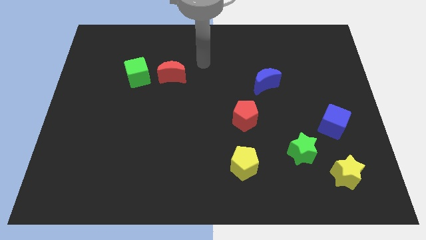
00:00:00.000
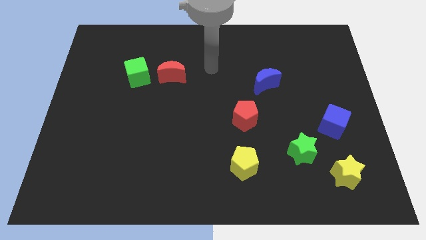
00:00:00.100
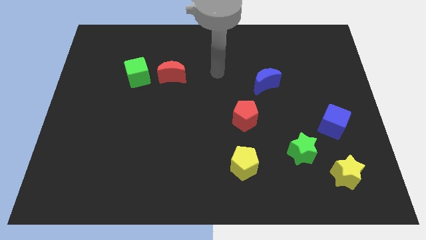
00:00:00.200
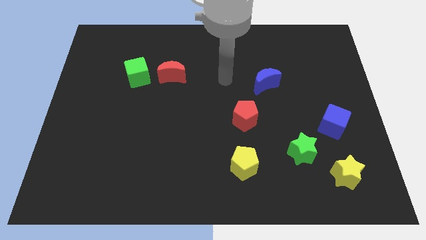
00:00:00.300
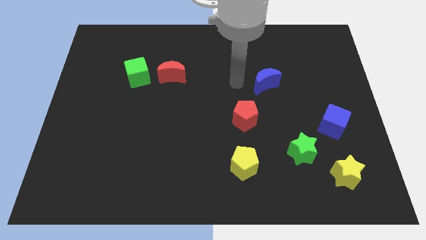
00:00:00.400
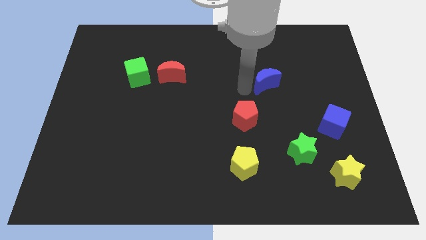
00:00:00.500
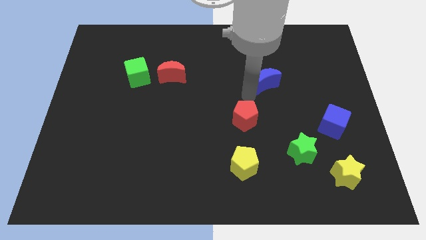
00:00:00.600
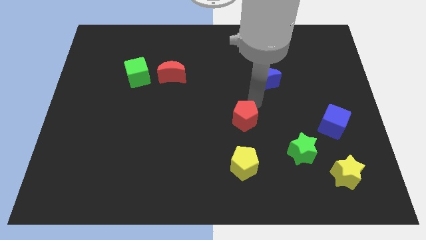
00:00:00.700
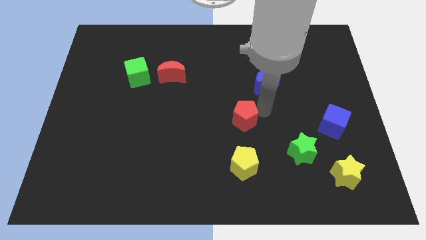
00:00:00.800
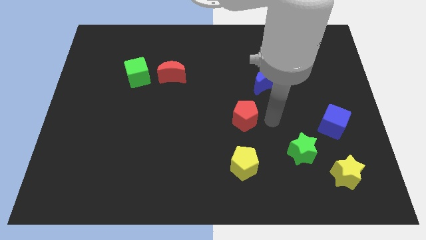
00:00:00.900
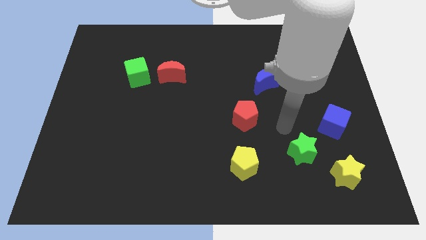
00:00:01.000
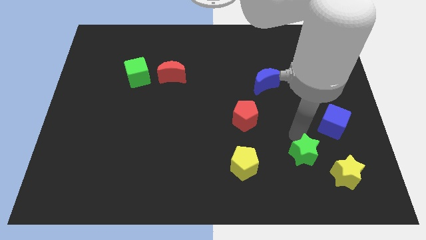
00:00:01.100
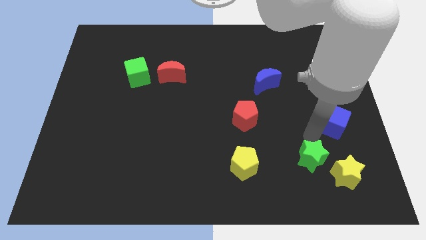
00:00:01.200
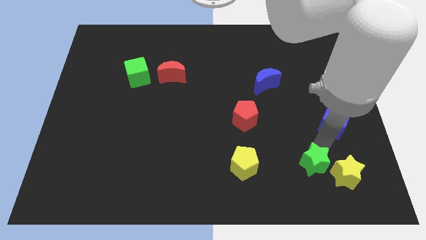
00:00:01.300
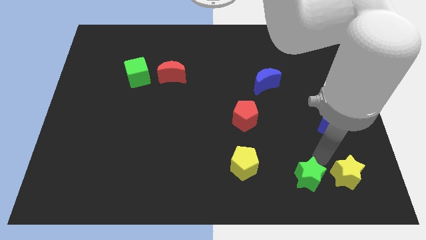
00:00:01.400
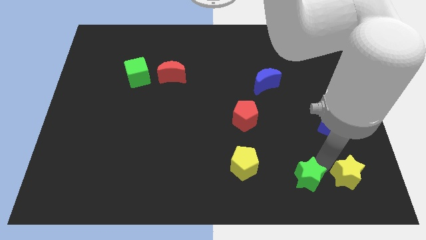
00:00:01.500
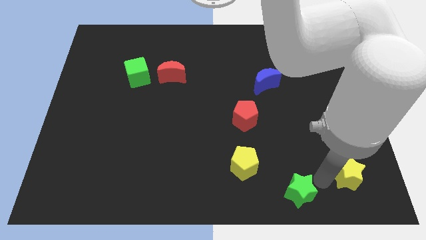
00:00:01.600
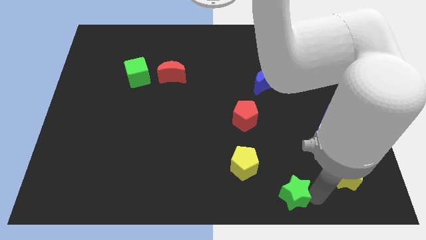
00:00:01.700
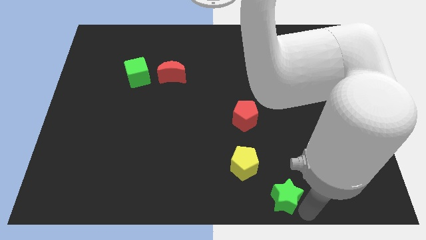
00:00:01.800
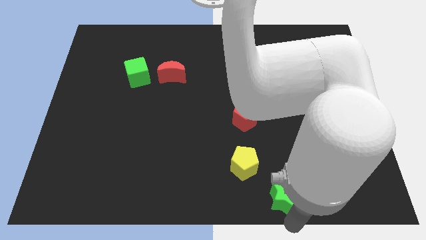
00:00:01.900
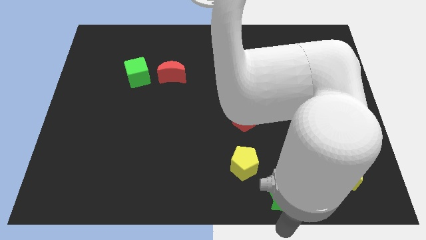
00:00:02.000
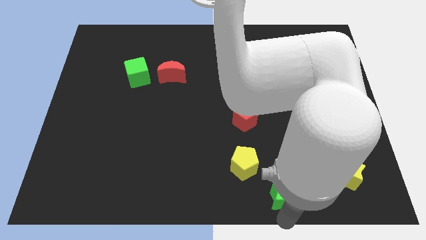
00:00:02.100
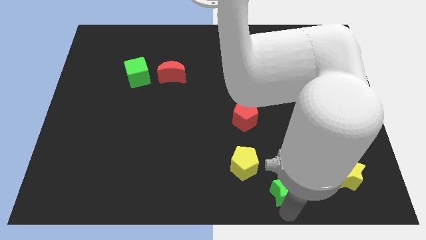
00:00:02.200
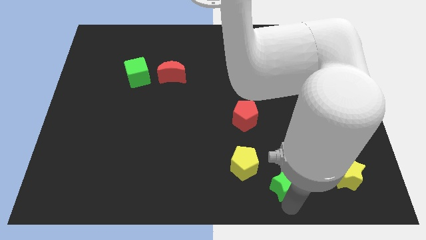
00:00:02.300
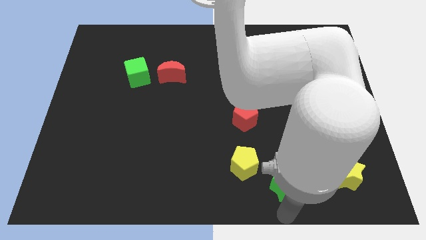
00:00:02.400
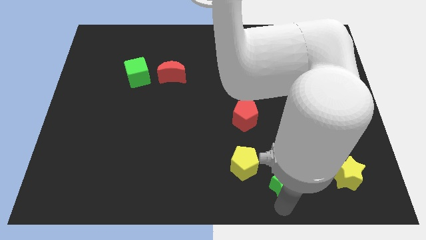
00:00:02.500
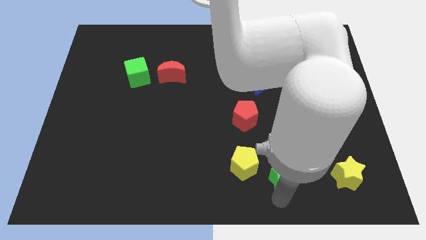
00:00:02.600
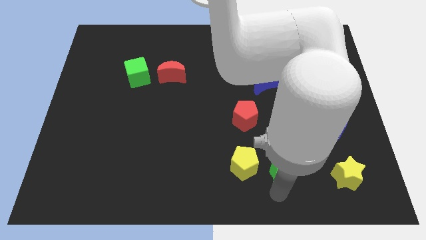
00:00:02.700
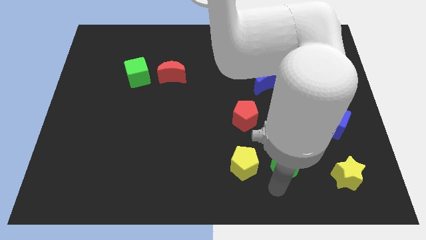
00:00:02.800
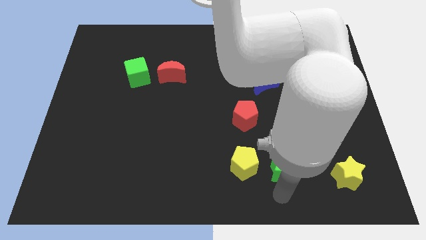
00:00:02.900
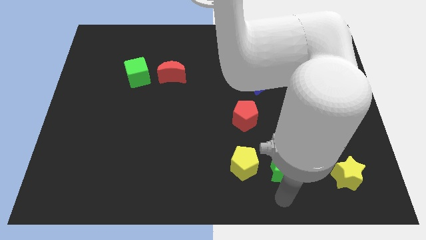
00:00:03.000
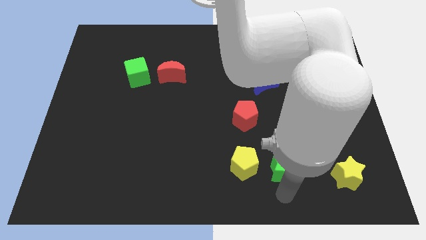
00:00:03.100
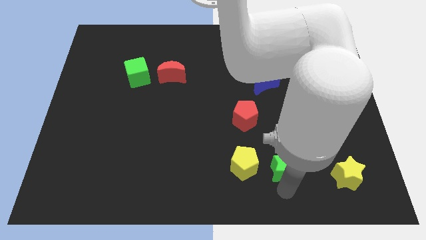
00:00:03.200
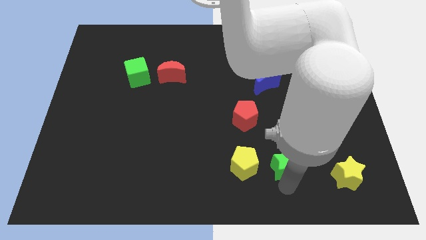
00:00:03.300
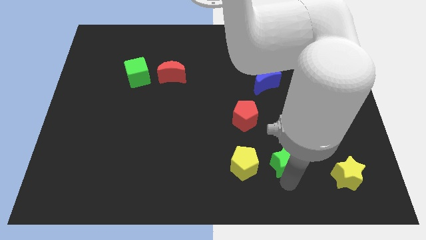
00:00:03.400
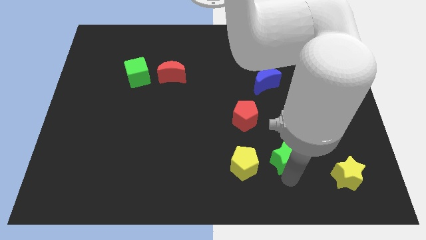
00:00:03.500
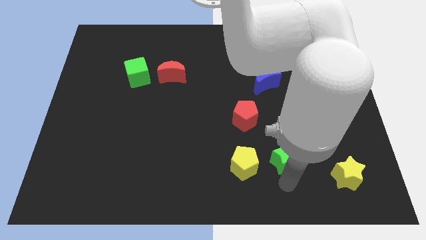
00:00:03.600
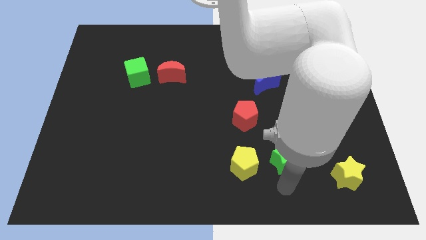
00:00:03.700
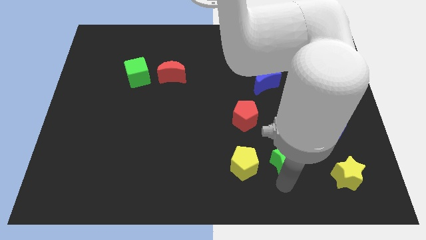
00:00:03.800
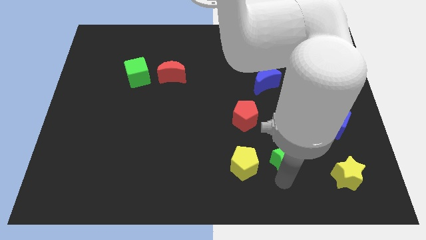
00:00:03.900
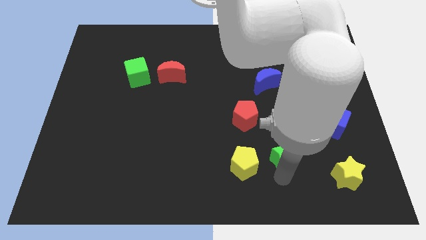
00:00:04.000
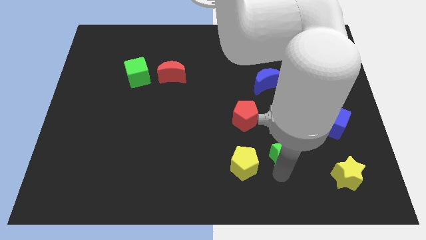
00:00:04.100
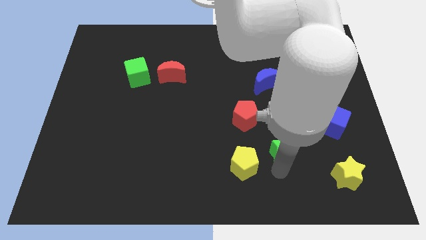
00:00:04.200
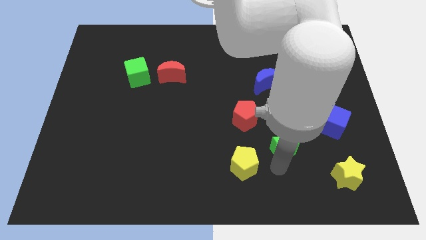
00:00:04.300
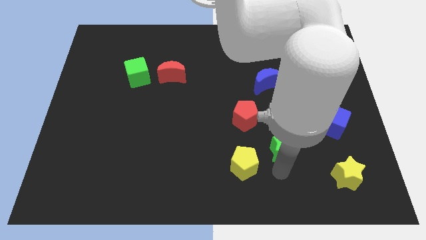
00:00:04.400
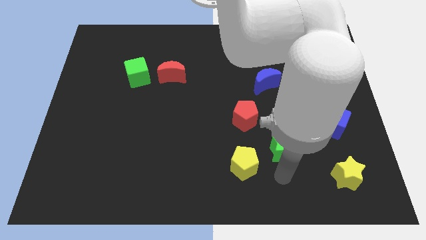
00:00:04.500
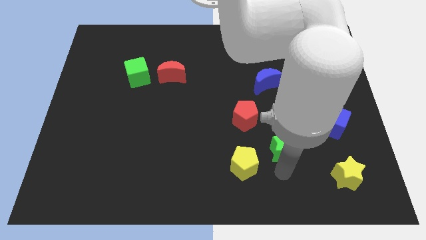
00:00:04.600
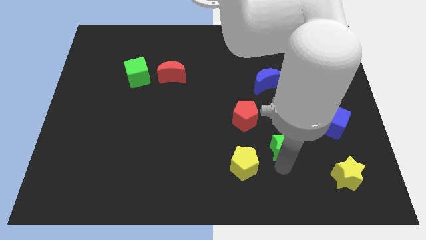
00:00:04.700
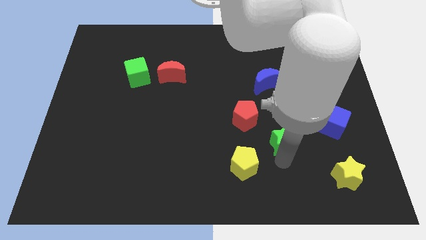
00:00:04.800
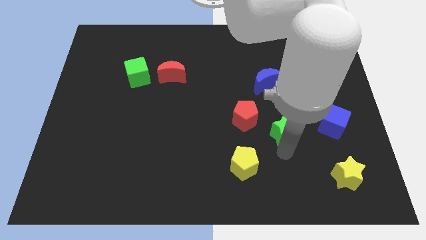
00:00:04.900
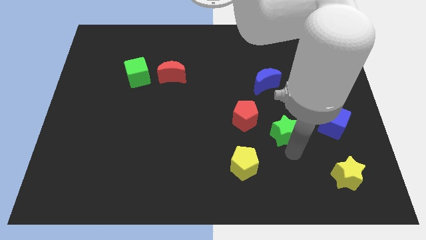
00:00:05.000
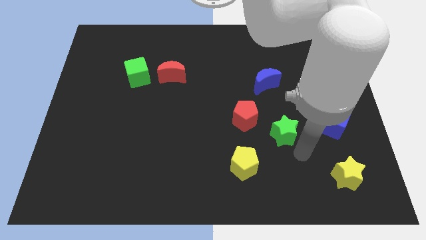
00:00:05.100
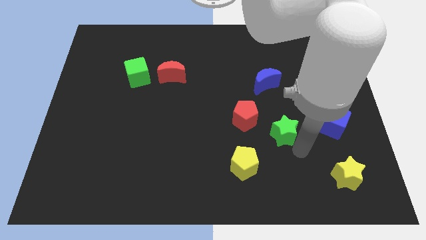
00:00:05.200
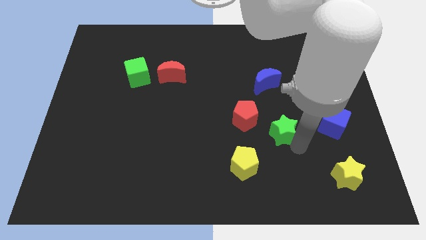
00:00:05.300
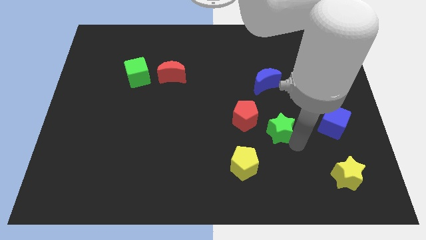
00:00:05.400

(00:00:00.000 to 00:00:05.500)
push the green star upwards and left diagonally a little

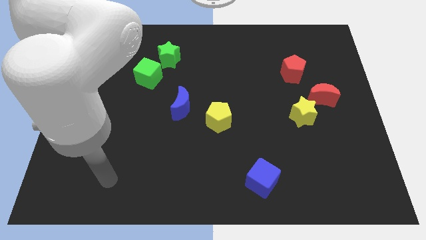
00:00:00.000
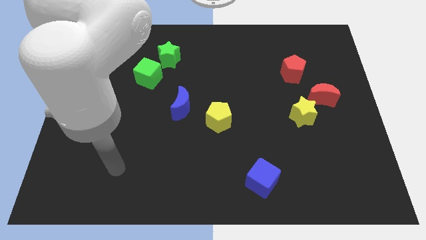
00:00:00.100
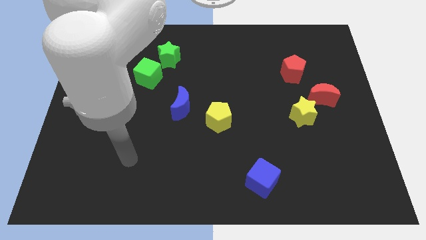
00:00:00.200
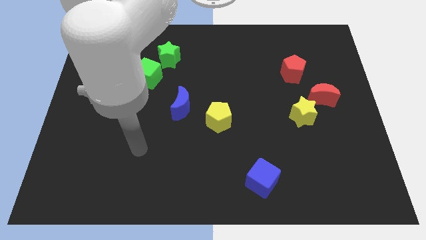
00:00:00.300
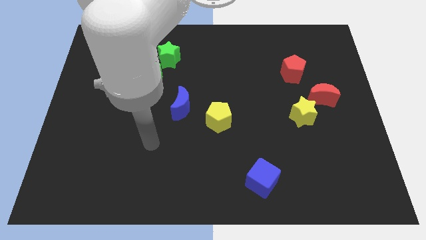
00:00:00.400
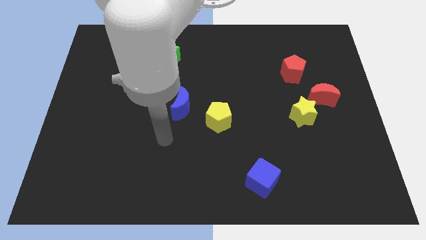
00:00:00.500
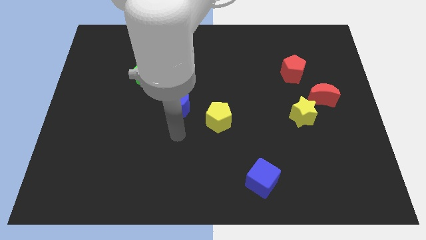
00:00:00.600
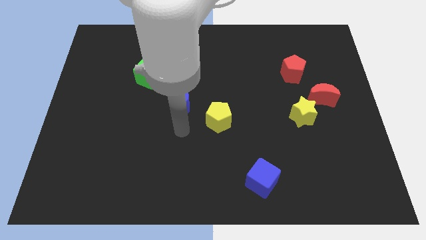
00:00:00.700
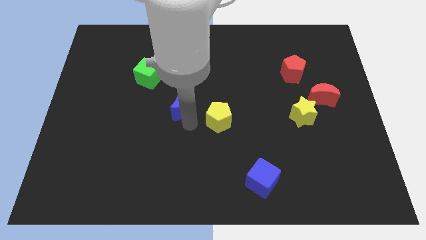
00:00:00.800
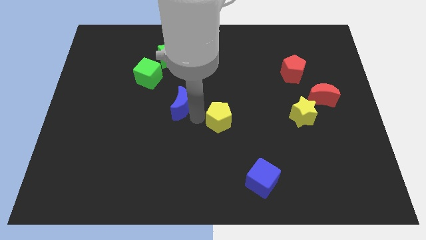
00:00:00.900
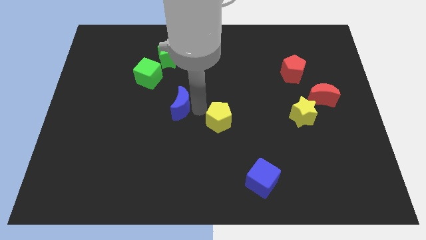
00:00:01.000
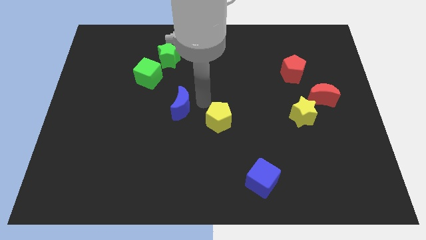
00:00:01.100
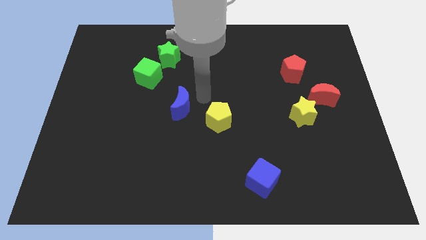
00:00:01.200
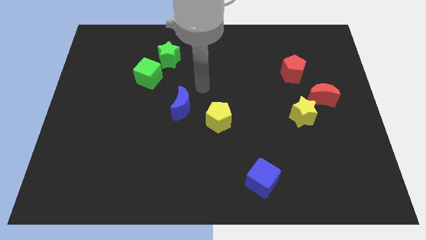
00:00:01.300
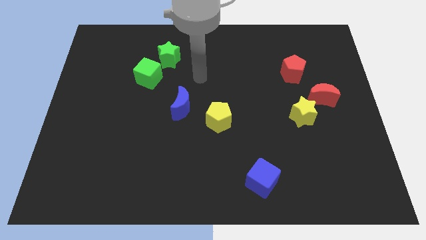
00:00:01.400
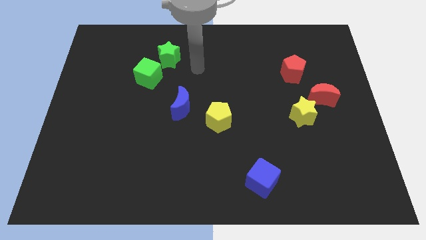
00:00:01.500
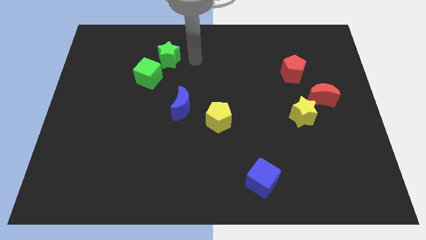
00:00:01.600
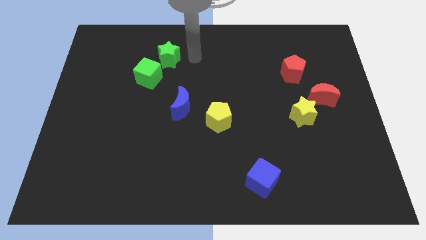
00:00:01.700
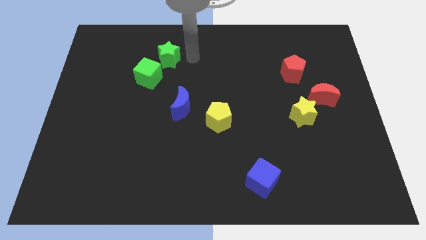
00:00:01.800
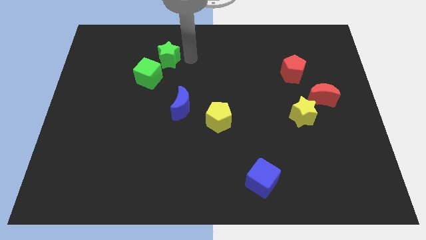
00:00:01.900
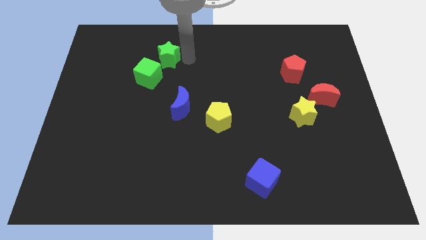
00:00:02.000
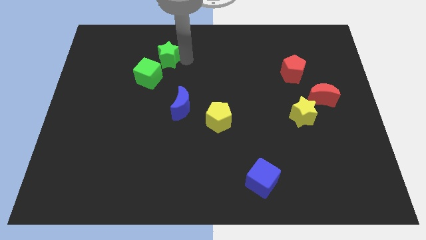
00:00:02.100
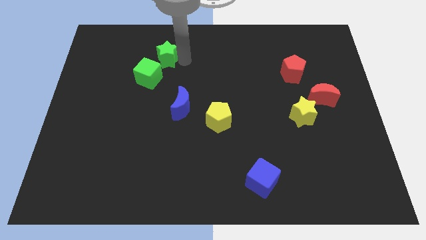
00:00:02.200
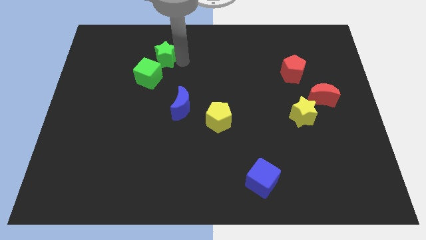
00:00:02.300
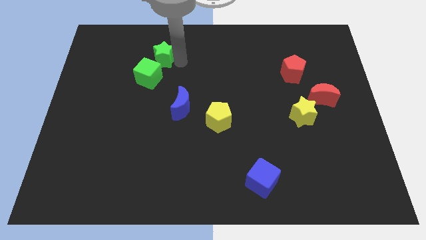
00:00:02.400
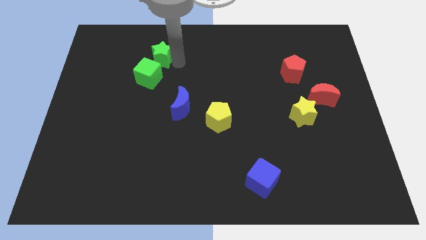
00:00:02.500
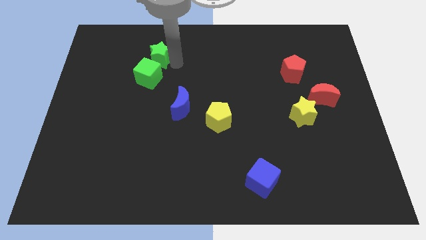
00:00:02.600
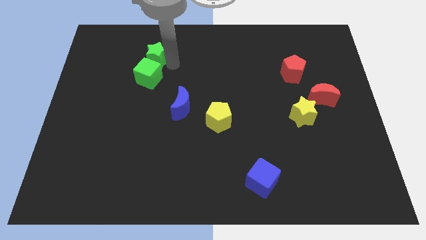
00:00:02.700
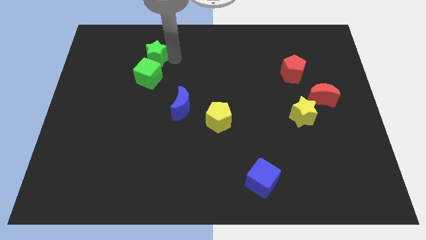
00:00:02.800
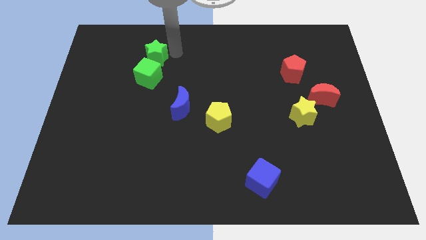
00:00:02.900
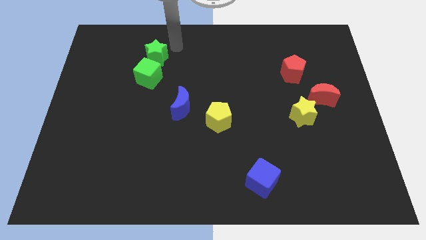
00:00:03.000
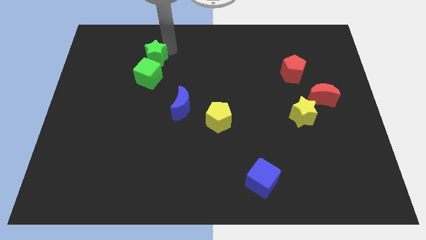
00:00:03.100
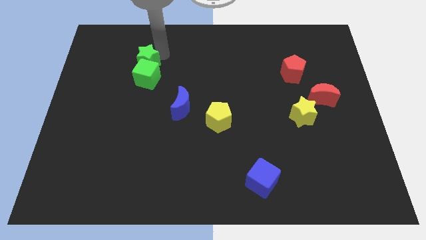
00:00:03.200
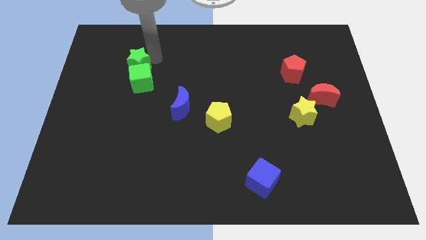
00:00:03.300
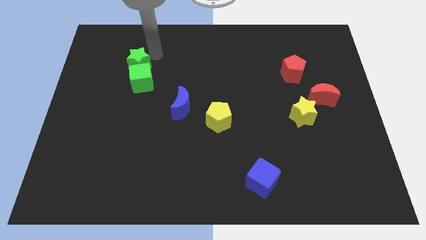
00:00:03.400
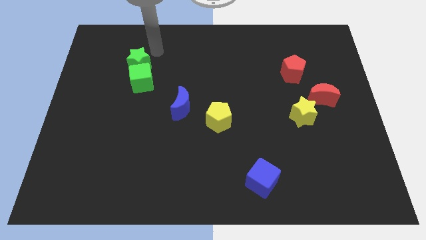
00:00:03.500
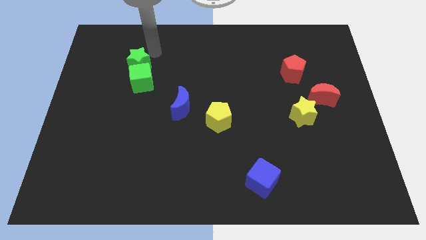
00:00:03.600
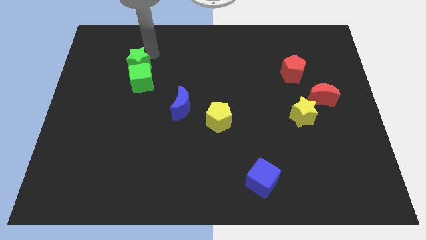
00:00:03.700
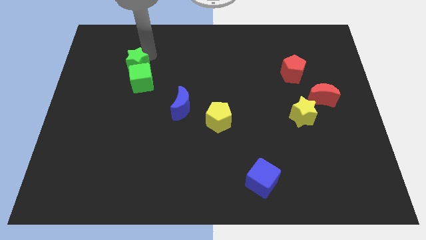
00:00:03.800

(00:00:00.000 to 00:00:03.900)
push the green star diagonally downwards and left a little
